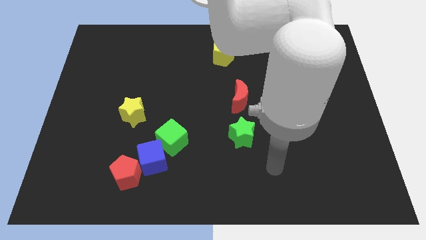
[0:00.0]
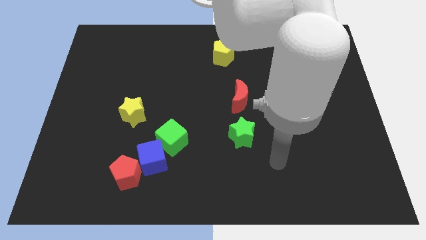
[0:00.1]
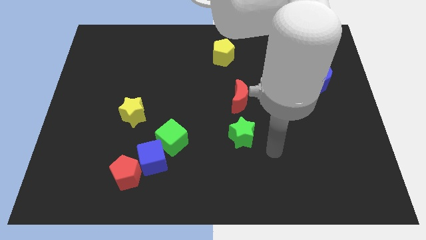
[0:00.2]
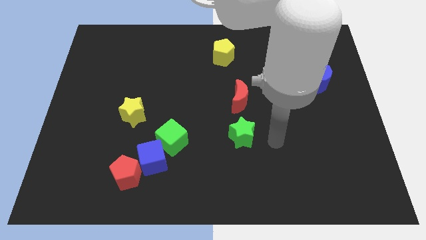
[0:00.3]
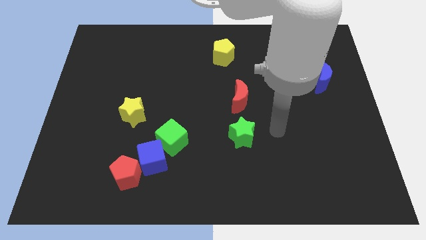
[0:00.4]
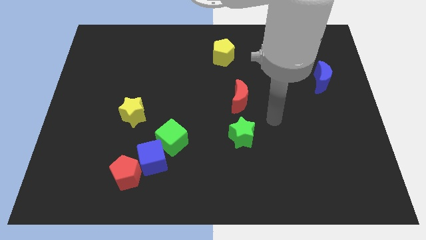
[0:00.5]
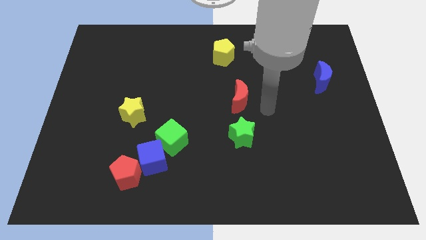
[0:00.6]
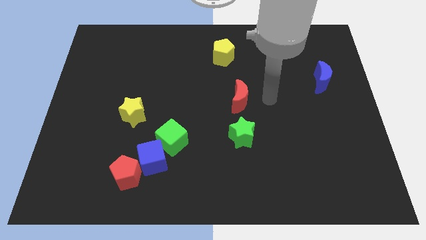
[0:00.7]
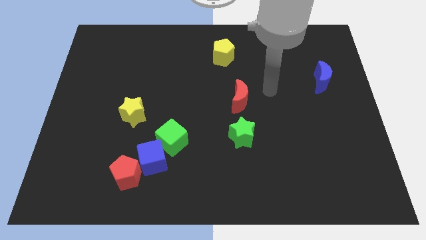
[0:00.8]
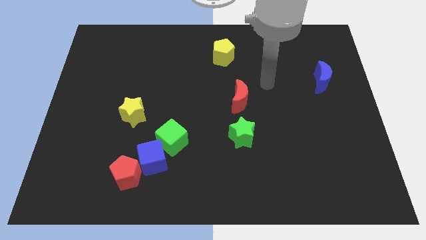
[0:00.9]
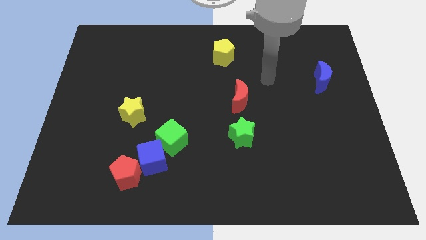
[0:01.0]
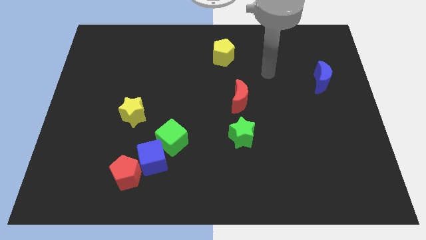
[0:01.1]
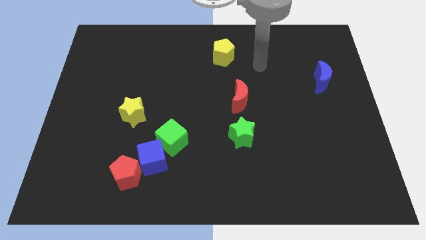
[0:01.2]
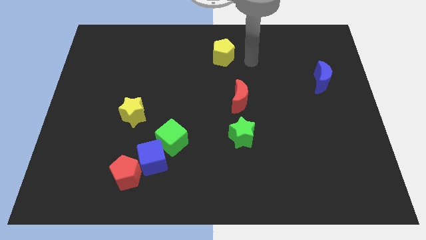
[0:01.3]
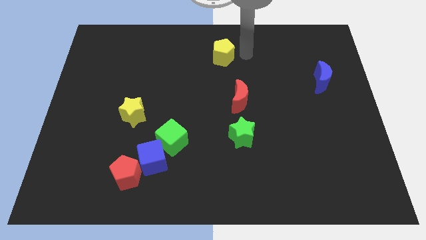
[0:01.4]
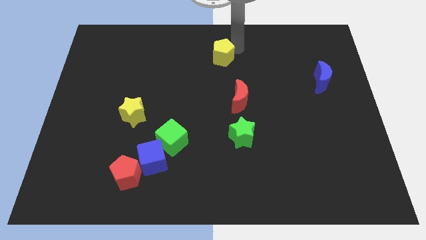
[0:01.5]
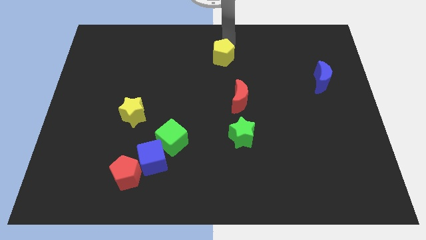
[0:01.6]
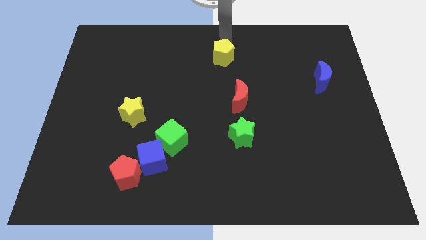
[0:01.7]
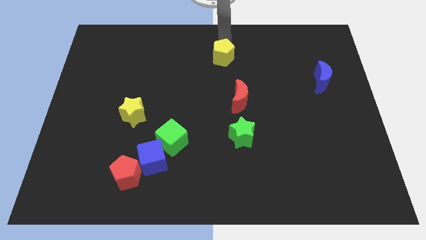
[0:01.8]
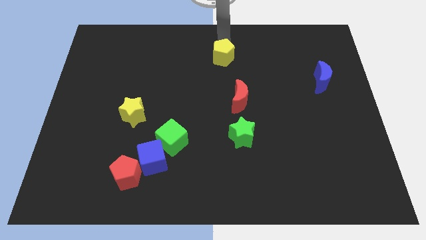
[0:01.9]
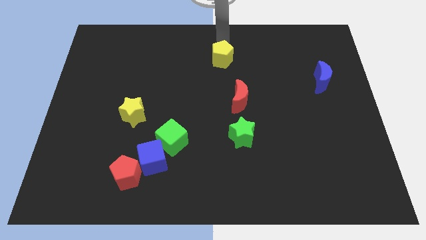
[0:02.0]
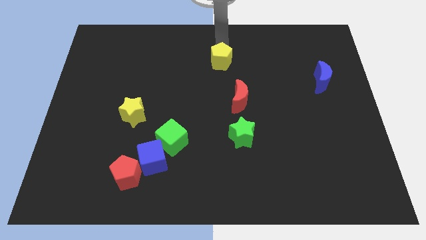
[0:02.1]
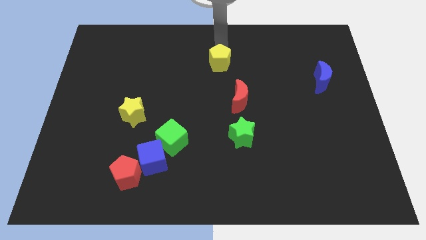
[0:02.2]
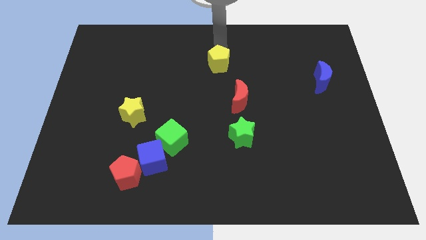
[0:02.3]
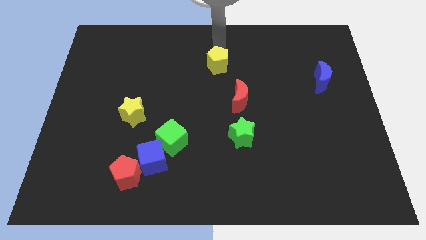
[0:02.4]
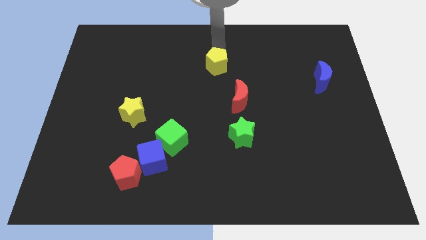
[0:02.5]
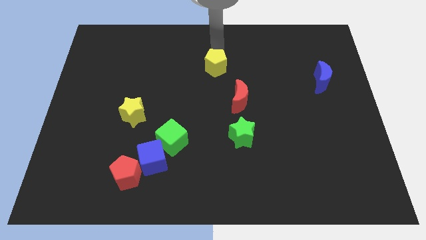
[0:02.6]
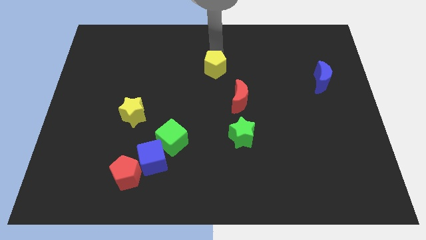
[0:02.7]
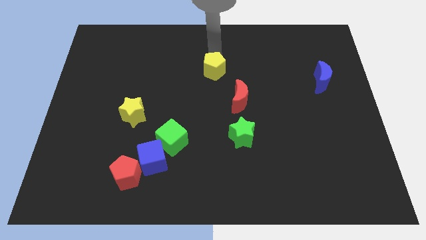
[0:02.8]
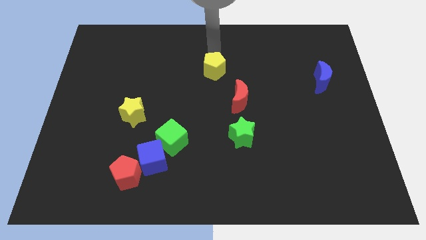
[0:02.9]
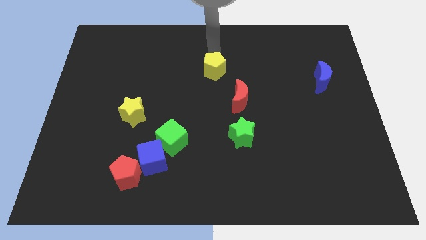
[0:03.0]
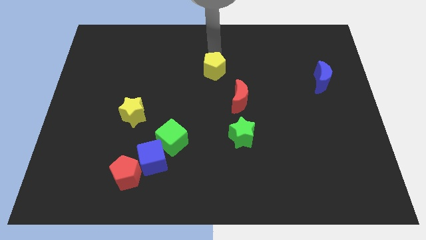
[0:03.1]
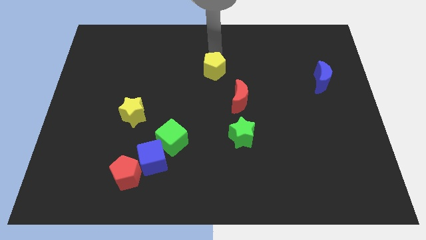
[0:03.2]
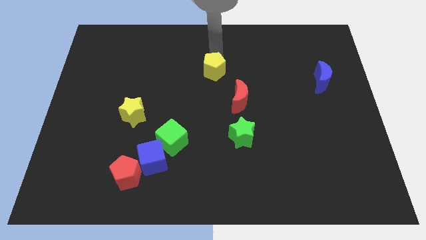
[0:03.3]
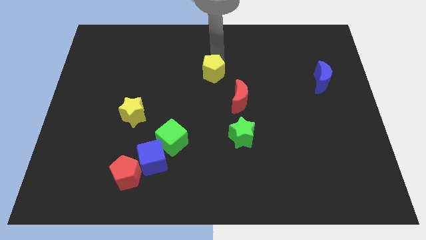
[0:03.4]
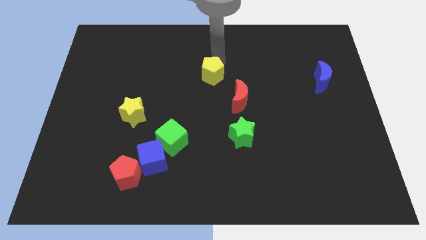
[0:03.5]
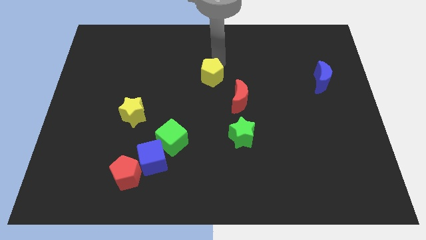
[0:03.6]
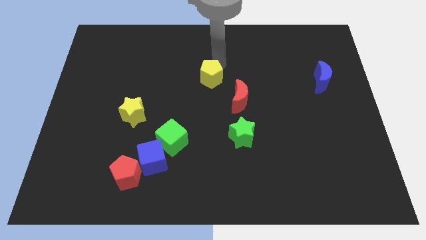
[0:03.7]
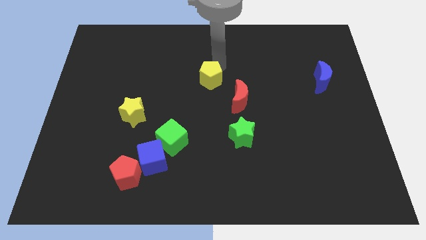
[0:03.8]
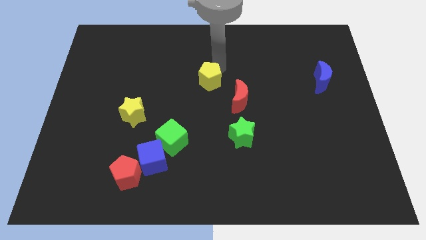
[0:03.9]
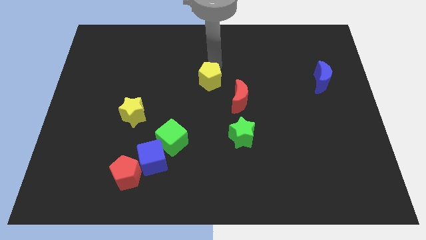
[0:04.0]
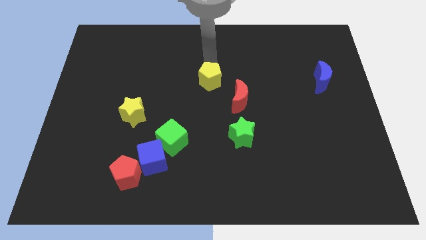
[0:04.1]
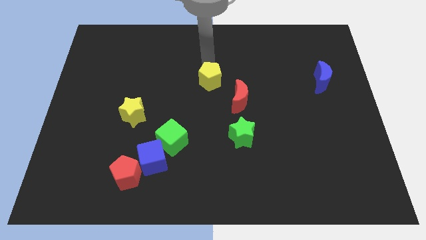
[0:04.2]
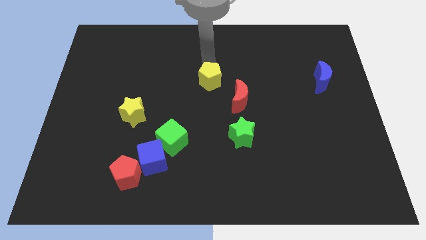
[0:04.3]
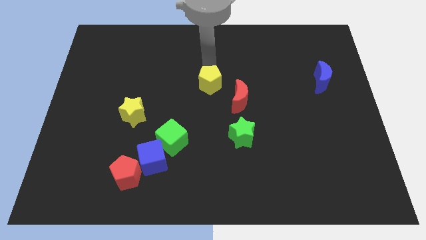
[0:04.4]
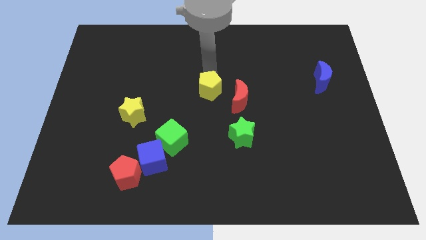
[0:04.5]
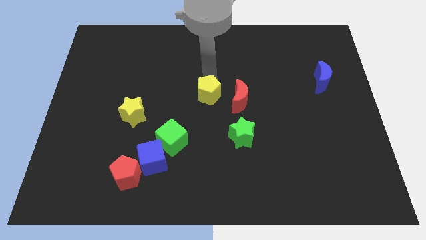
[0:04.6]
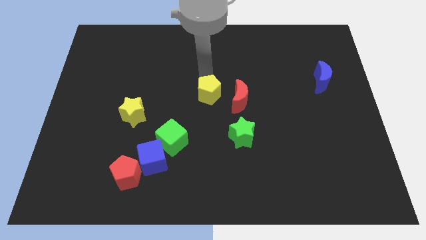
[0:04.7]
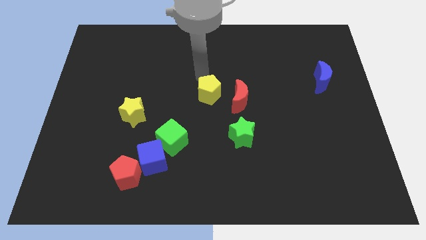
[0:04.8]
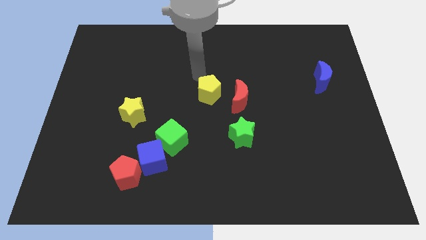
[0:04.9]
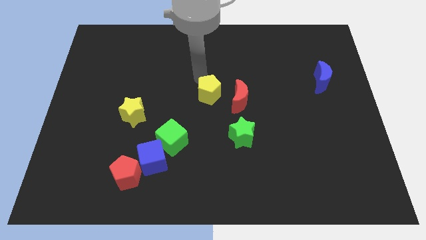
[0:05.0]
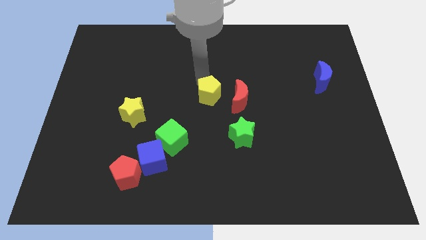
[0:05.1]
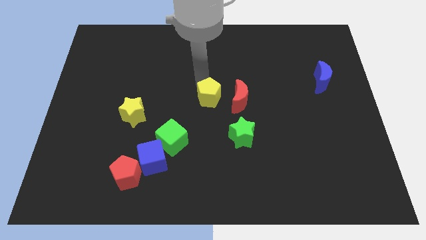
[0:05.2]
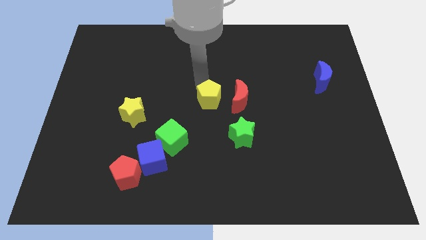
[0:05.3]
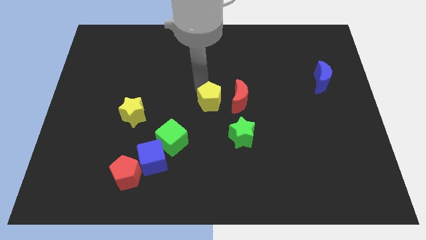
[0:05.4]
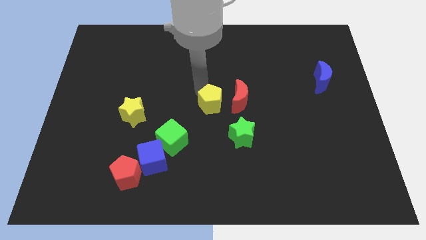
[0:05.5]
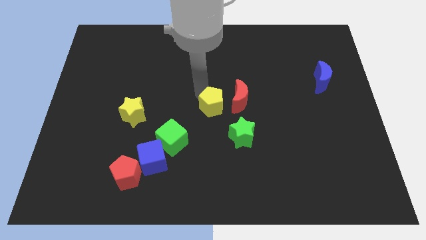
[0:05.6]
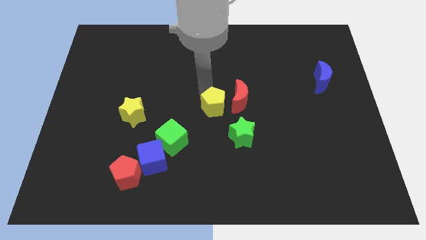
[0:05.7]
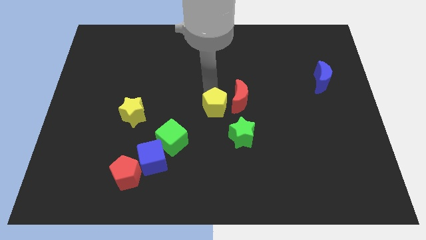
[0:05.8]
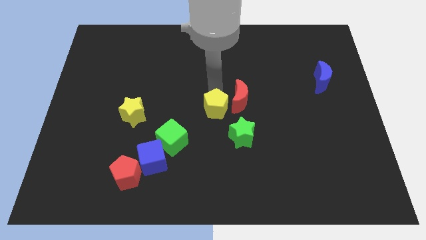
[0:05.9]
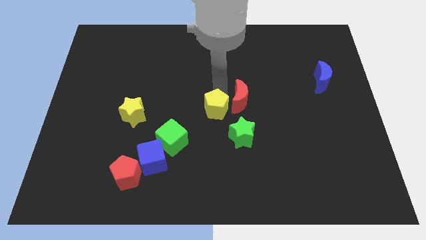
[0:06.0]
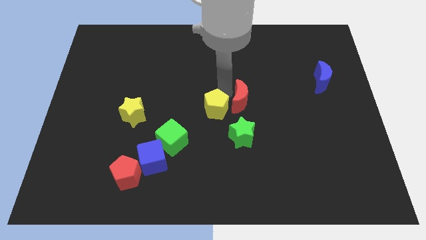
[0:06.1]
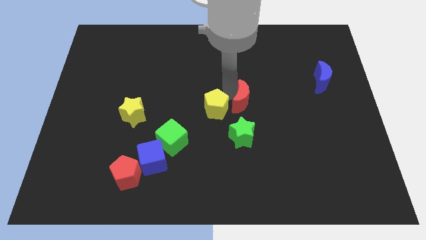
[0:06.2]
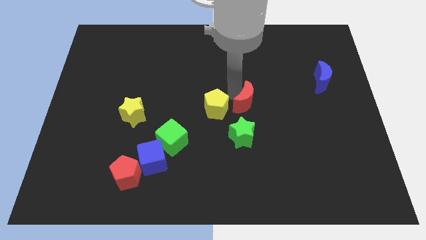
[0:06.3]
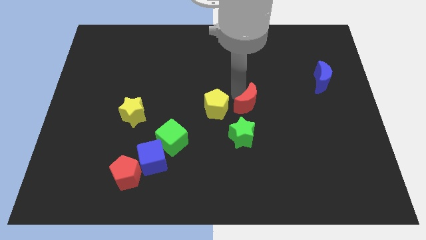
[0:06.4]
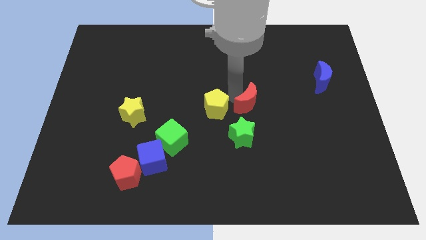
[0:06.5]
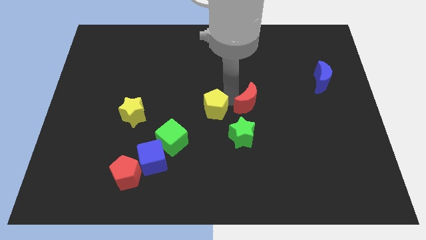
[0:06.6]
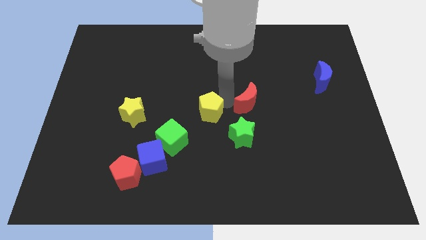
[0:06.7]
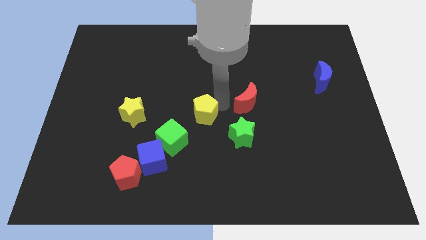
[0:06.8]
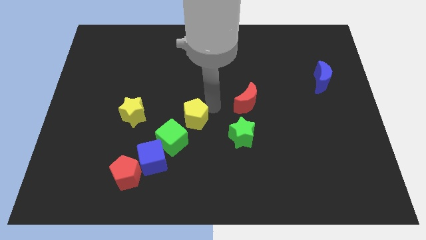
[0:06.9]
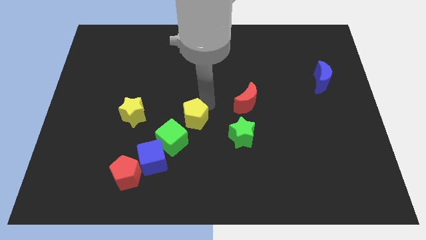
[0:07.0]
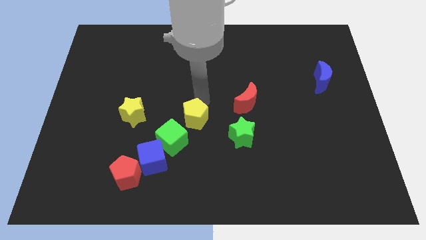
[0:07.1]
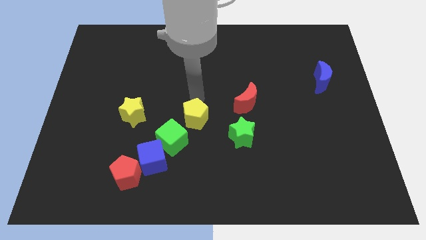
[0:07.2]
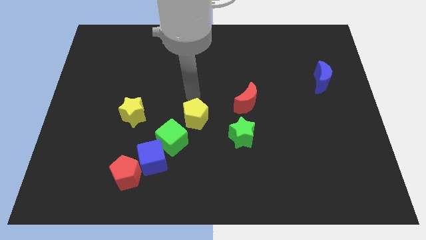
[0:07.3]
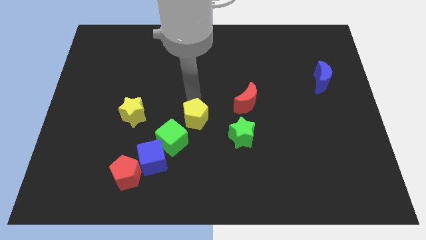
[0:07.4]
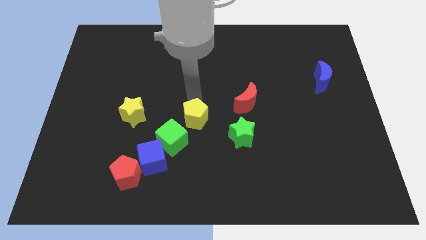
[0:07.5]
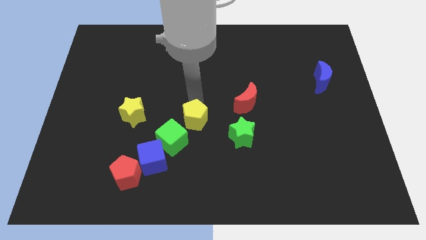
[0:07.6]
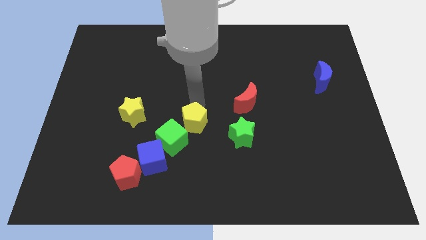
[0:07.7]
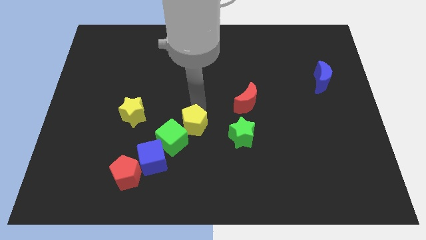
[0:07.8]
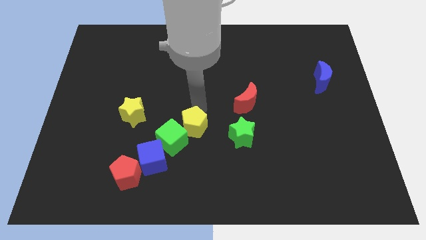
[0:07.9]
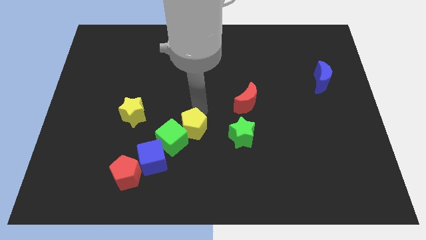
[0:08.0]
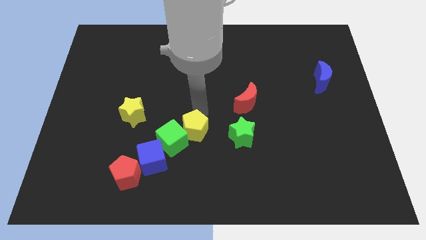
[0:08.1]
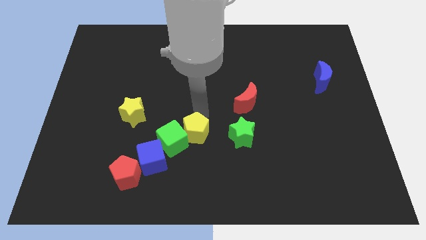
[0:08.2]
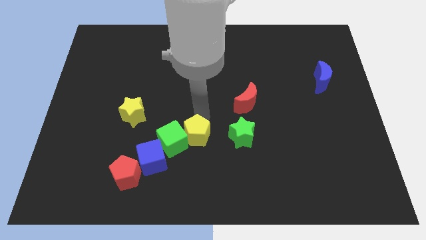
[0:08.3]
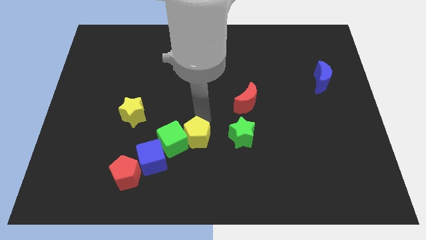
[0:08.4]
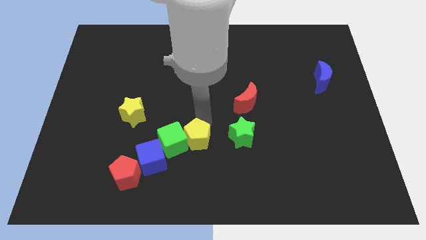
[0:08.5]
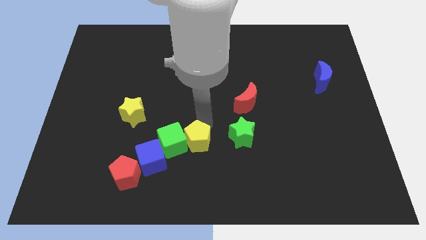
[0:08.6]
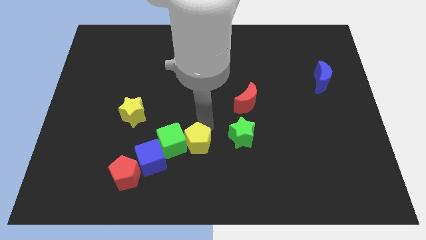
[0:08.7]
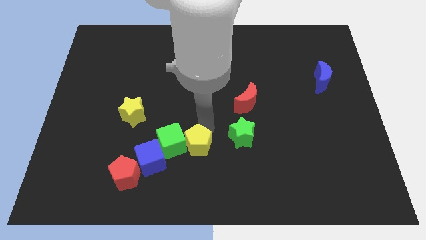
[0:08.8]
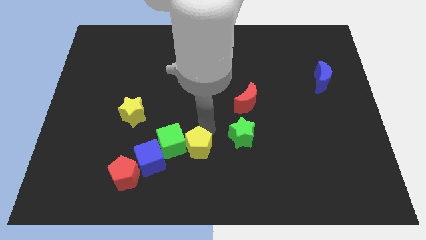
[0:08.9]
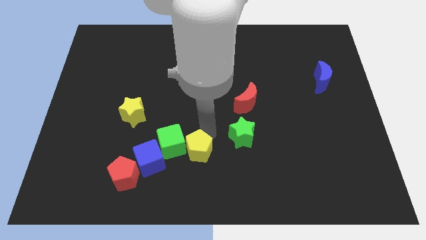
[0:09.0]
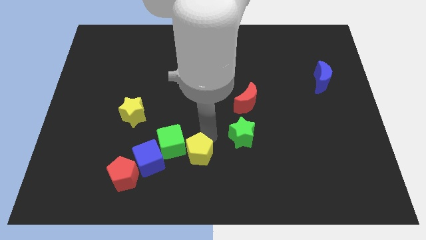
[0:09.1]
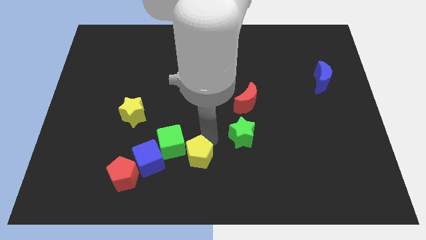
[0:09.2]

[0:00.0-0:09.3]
push the yellow pentagon to the bottom side
